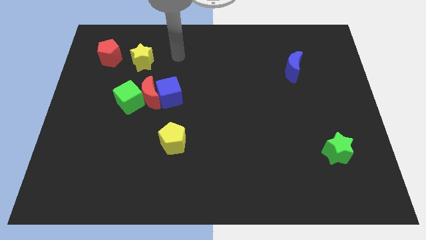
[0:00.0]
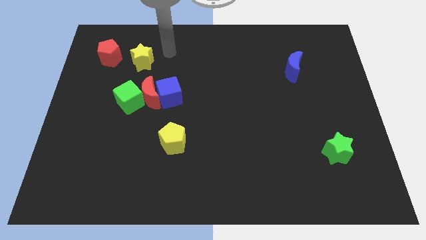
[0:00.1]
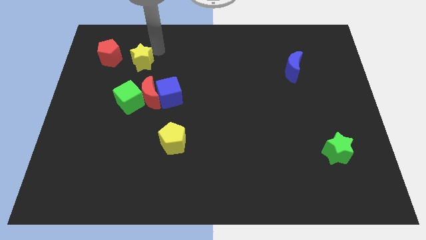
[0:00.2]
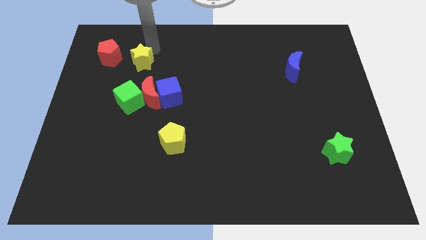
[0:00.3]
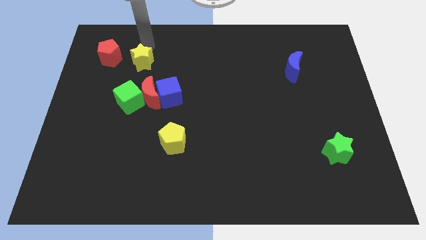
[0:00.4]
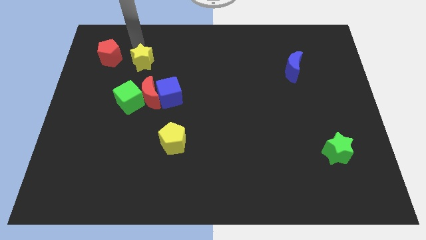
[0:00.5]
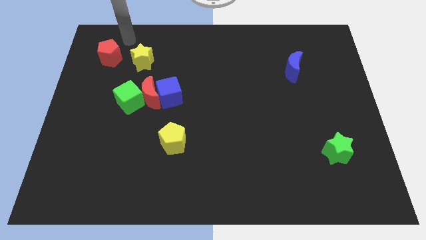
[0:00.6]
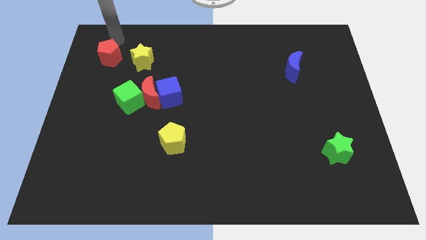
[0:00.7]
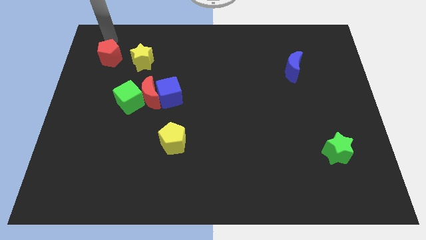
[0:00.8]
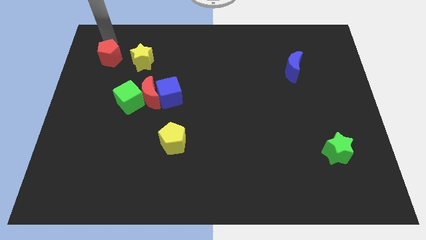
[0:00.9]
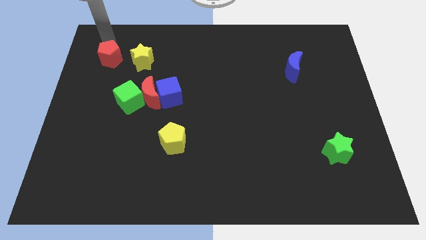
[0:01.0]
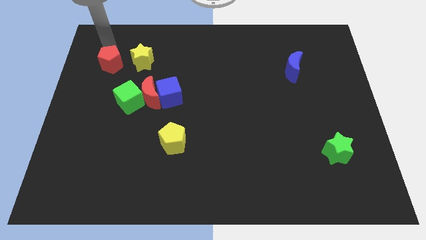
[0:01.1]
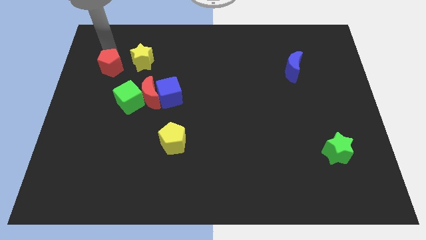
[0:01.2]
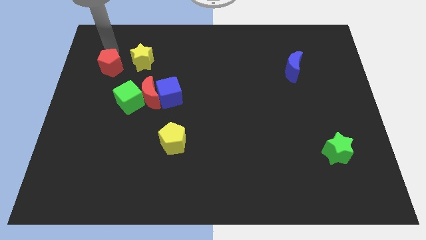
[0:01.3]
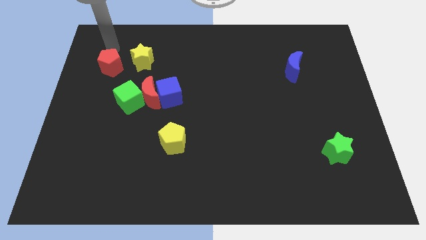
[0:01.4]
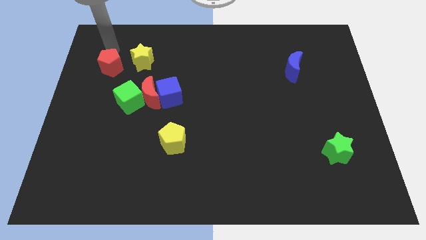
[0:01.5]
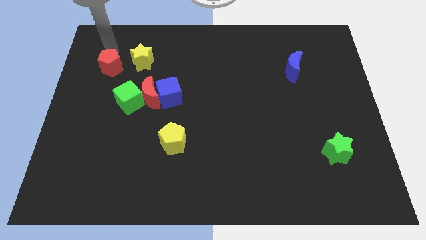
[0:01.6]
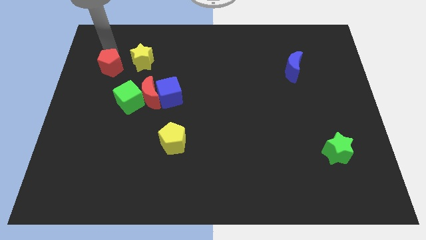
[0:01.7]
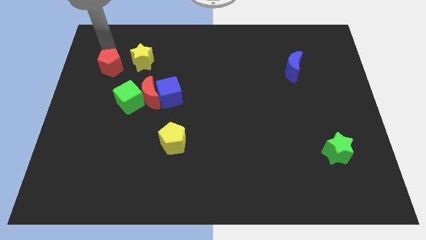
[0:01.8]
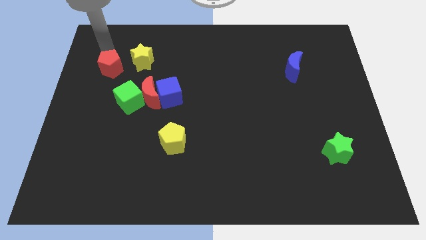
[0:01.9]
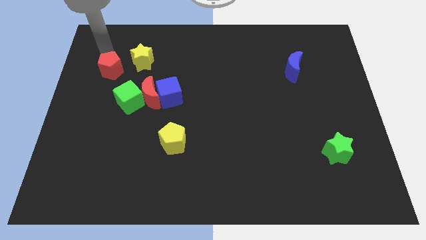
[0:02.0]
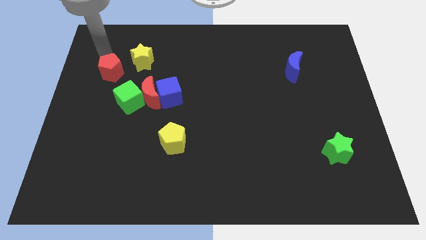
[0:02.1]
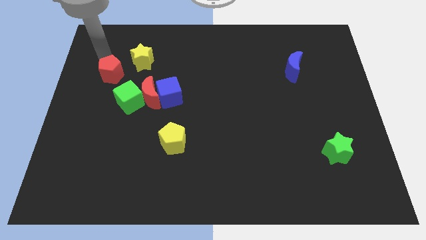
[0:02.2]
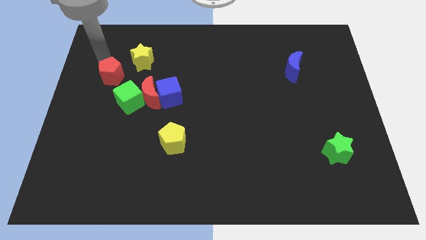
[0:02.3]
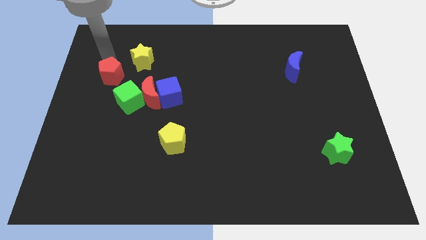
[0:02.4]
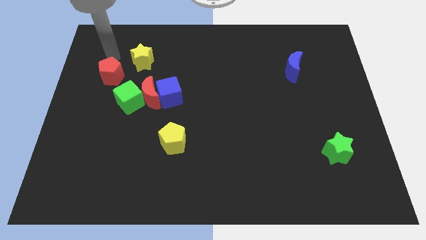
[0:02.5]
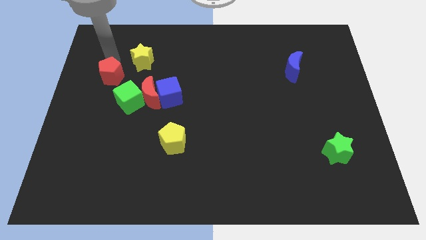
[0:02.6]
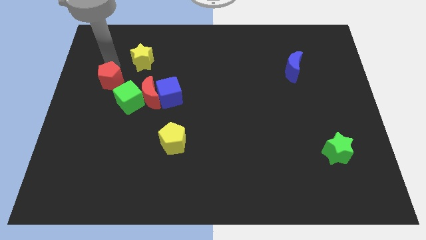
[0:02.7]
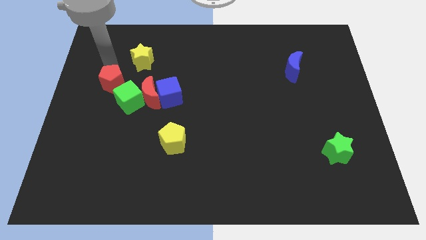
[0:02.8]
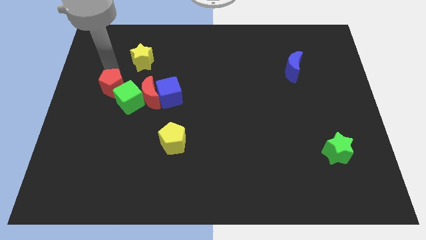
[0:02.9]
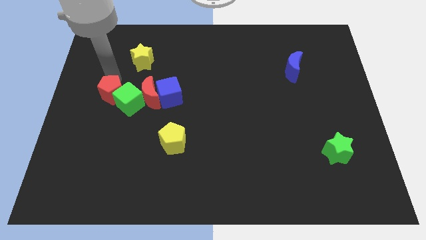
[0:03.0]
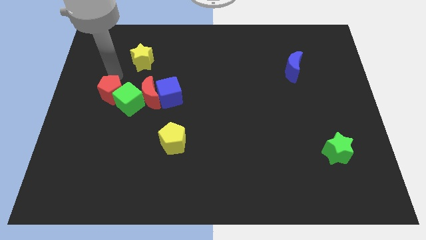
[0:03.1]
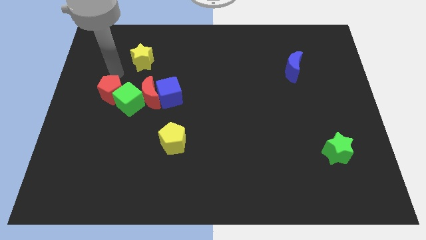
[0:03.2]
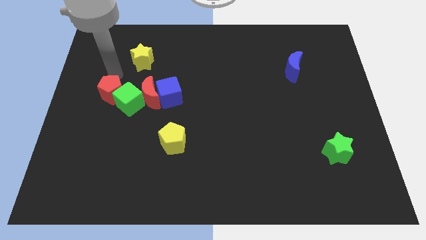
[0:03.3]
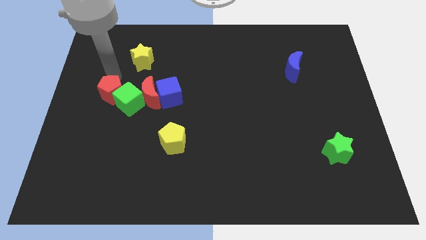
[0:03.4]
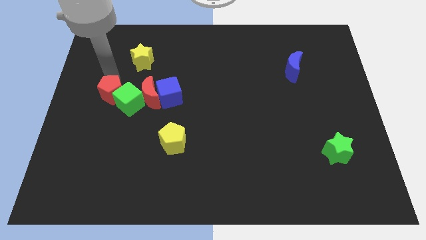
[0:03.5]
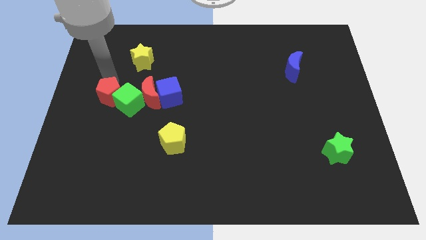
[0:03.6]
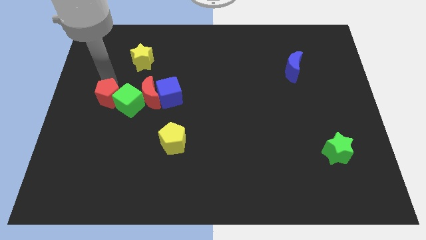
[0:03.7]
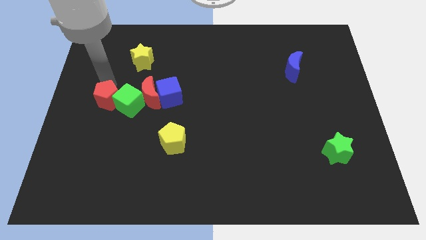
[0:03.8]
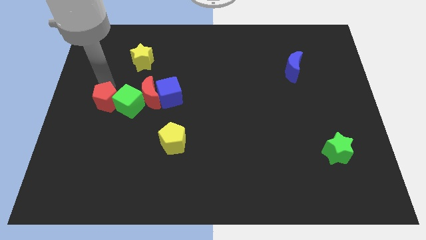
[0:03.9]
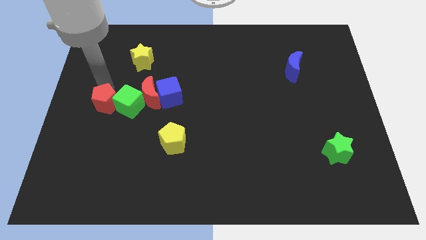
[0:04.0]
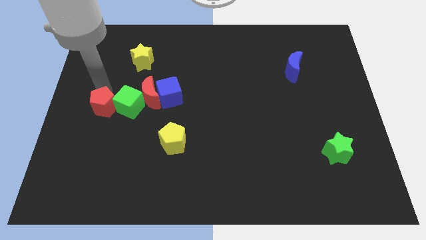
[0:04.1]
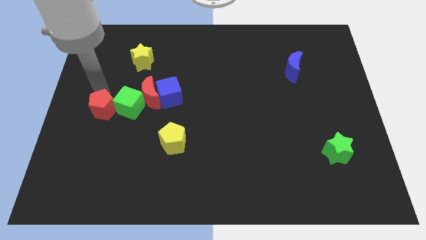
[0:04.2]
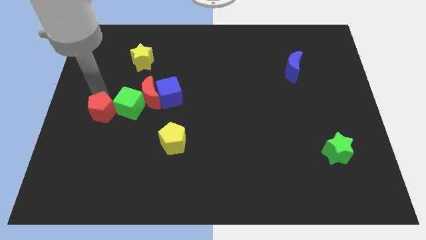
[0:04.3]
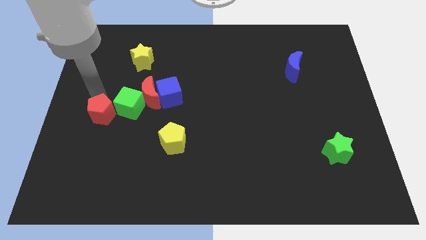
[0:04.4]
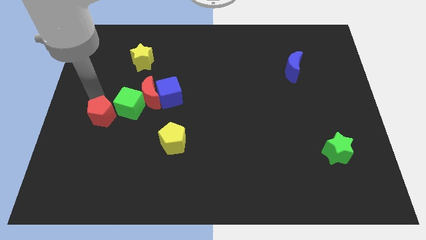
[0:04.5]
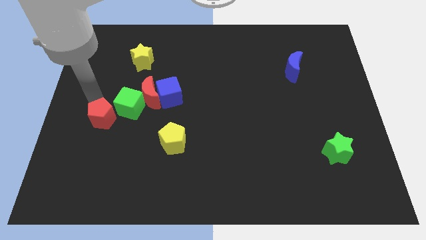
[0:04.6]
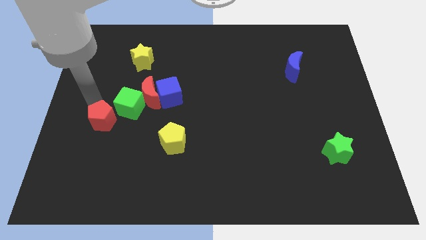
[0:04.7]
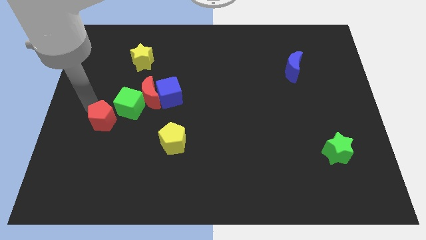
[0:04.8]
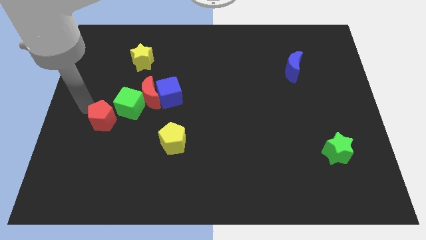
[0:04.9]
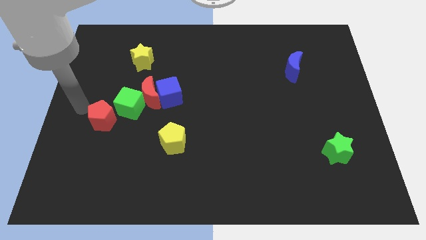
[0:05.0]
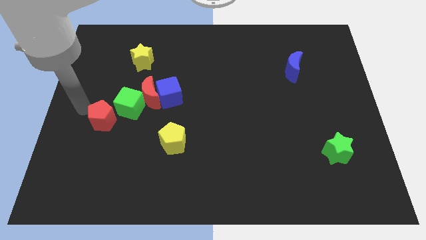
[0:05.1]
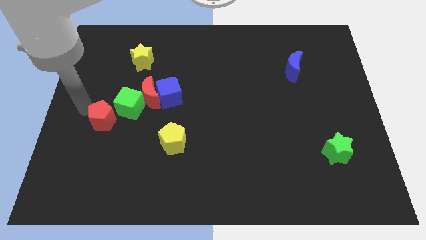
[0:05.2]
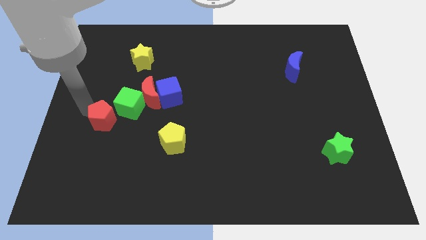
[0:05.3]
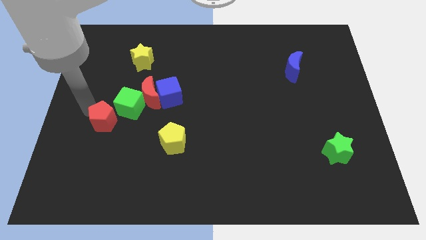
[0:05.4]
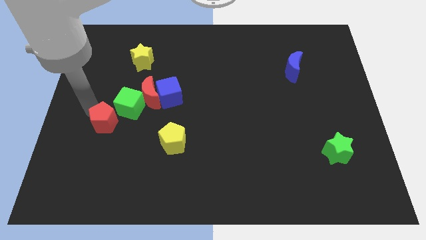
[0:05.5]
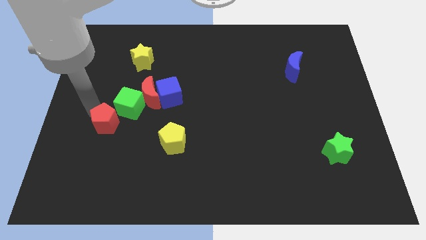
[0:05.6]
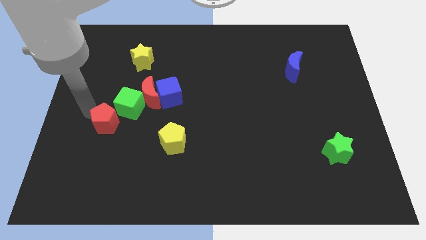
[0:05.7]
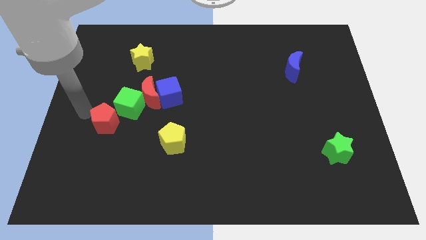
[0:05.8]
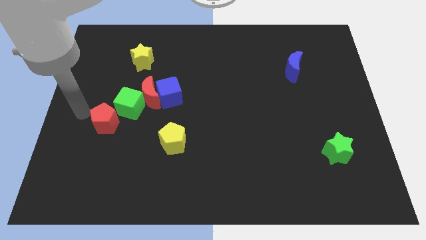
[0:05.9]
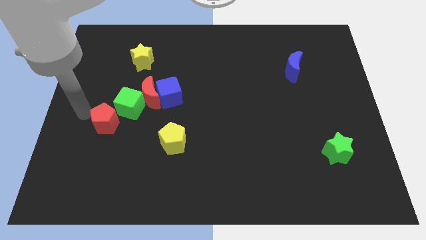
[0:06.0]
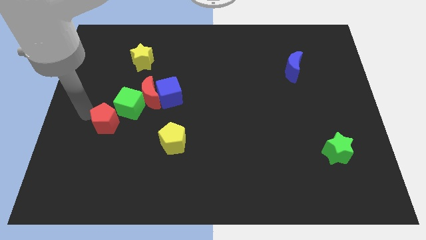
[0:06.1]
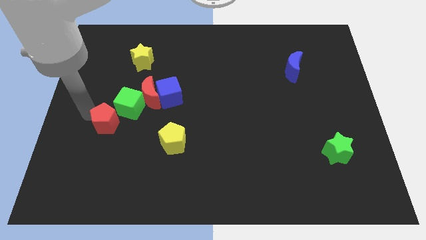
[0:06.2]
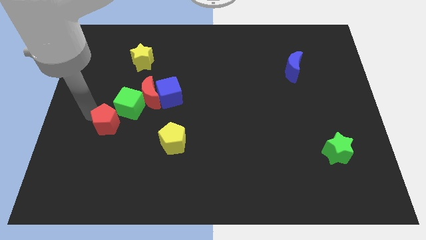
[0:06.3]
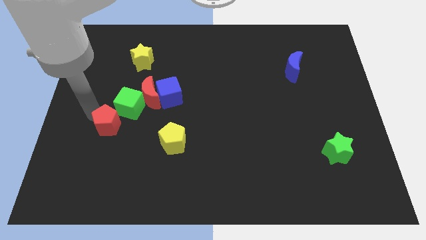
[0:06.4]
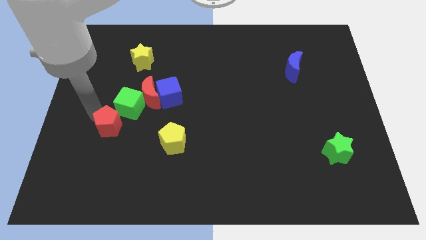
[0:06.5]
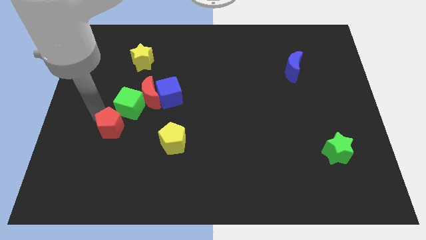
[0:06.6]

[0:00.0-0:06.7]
put the red pentagon just left of the yellow pentagon

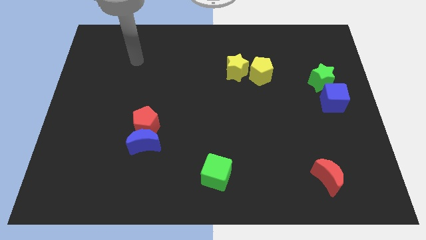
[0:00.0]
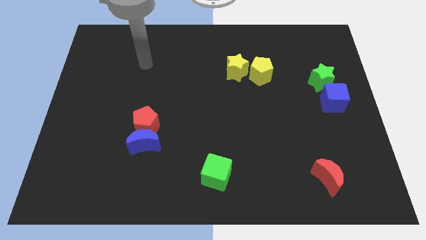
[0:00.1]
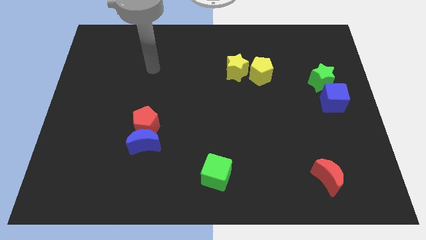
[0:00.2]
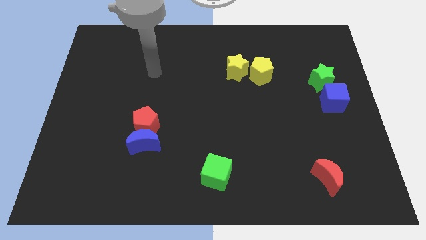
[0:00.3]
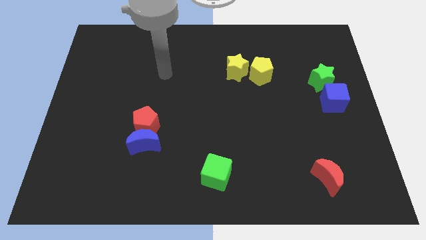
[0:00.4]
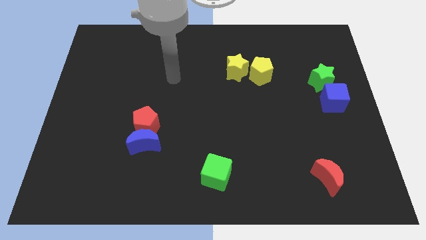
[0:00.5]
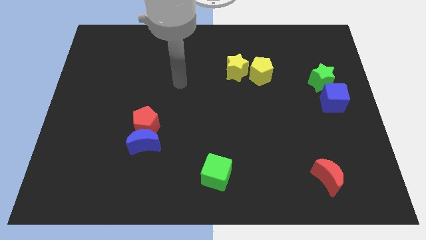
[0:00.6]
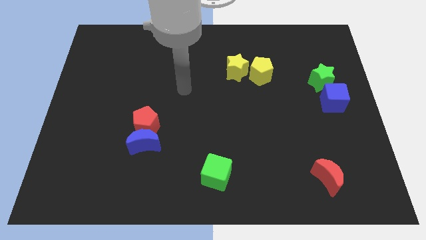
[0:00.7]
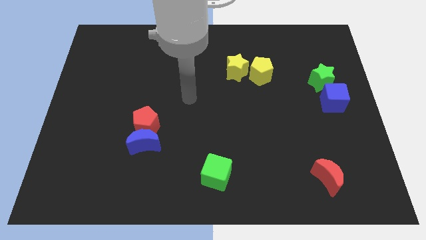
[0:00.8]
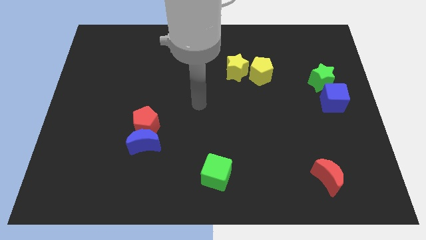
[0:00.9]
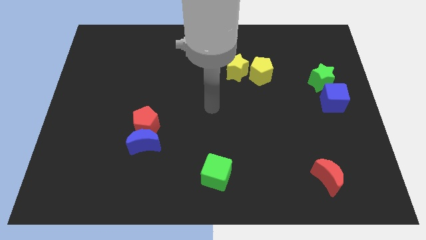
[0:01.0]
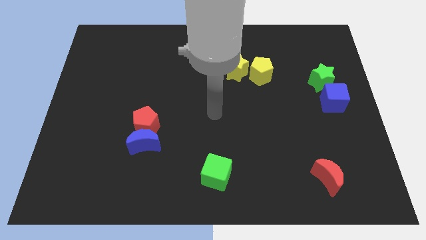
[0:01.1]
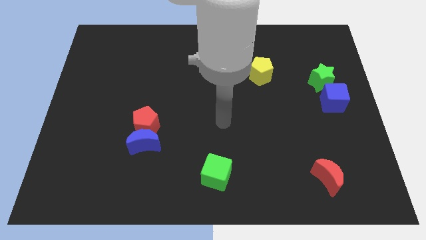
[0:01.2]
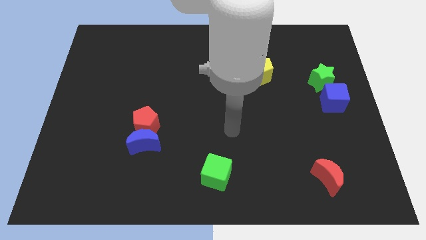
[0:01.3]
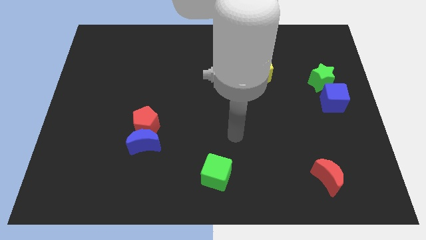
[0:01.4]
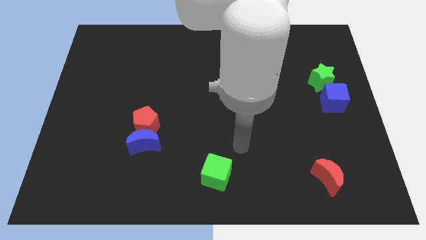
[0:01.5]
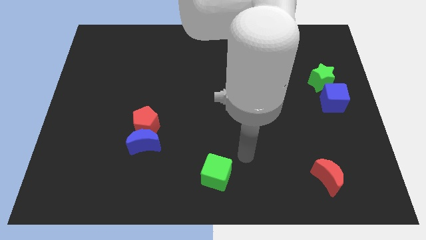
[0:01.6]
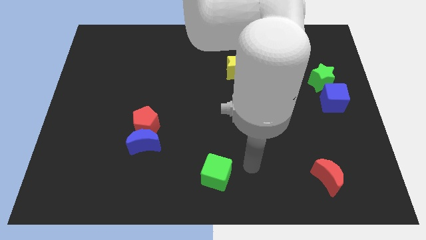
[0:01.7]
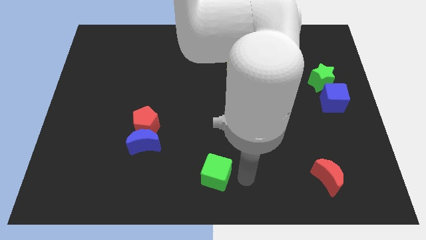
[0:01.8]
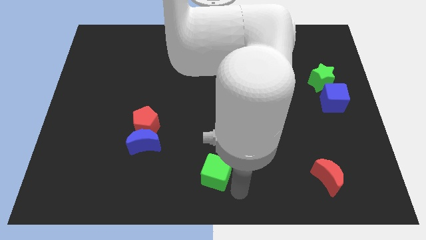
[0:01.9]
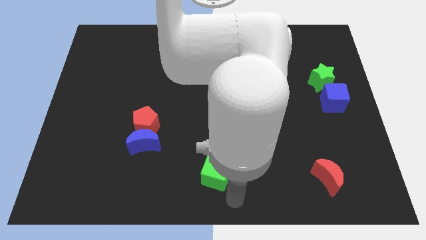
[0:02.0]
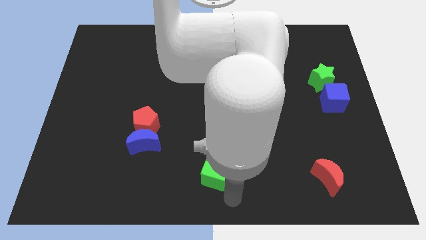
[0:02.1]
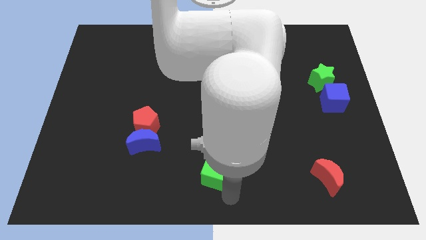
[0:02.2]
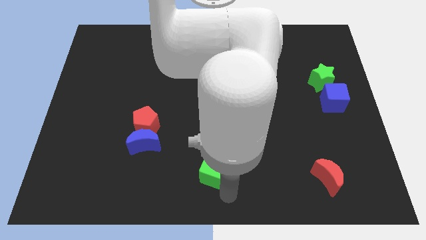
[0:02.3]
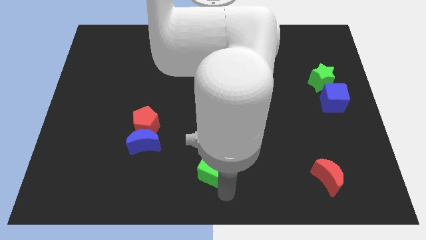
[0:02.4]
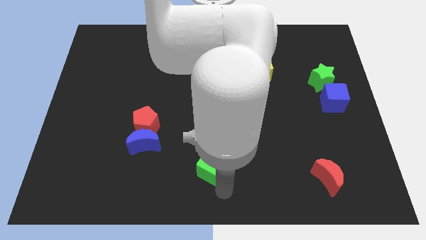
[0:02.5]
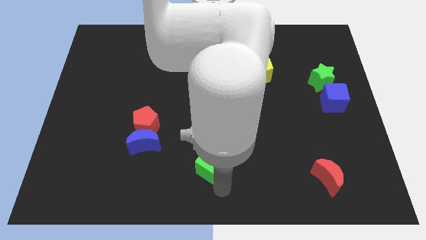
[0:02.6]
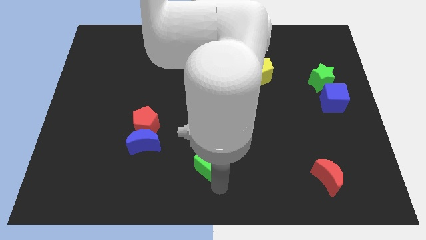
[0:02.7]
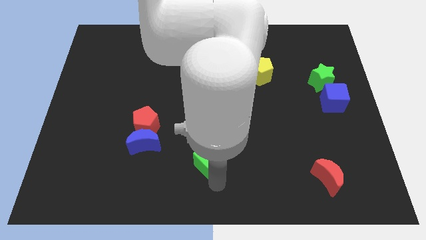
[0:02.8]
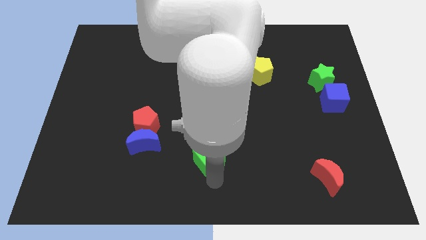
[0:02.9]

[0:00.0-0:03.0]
put the green cube just right of the blue moon
